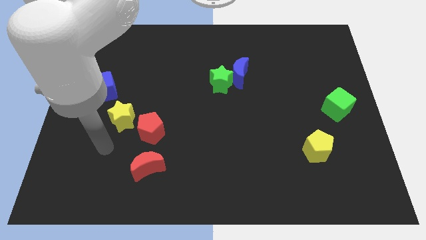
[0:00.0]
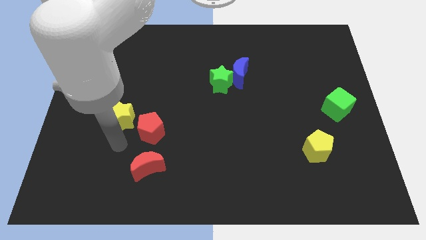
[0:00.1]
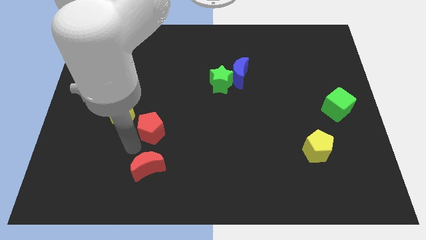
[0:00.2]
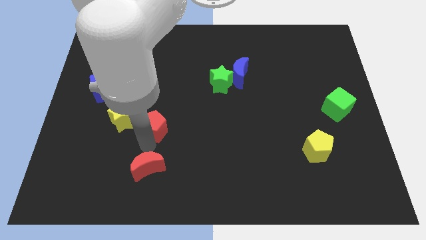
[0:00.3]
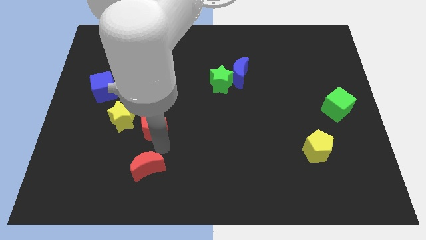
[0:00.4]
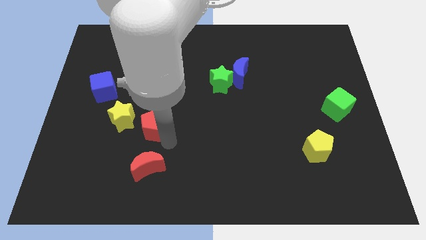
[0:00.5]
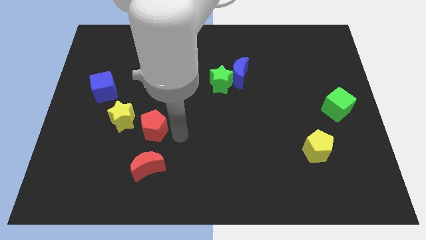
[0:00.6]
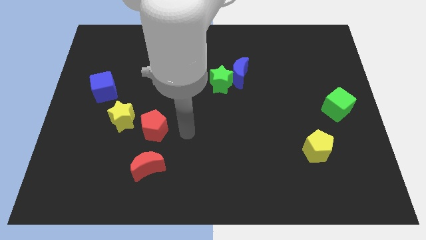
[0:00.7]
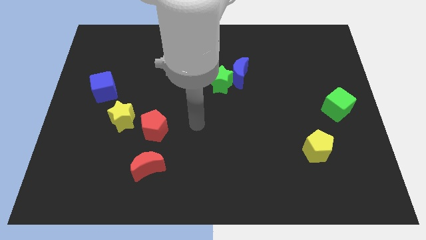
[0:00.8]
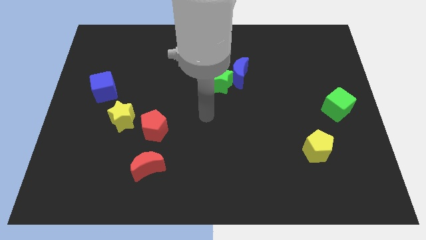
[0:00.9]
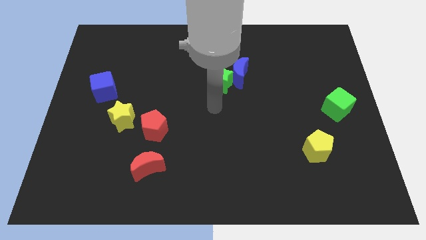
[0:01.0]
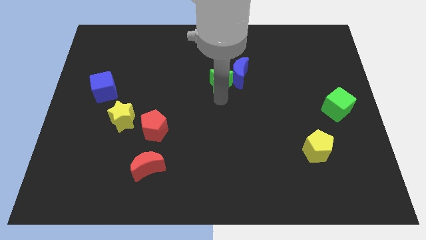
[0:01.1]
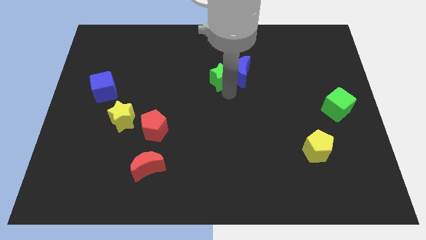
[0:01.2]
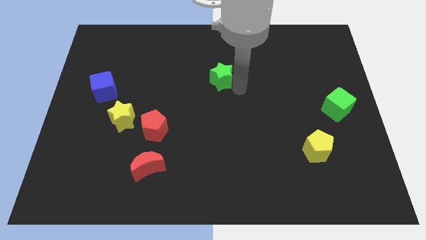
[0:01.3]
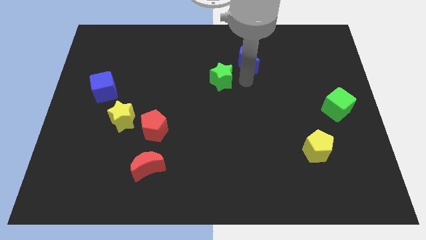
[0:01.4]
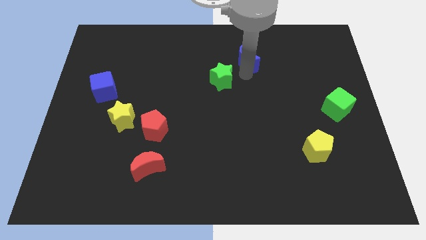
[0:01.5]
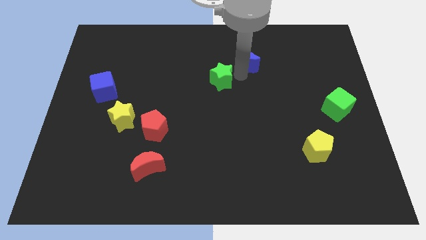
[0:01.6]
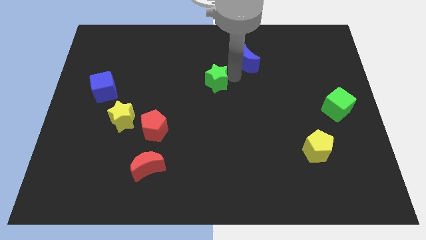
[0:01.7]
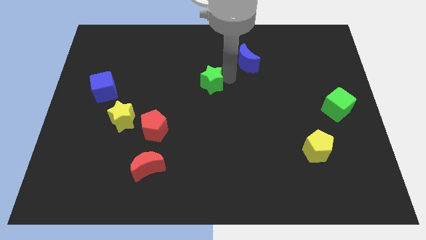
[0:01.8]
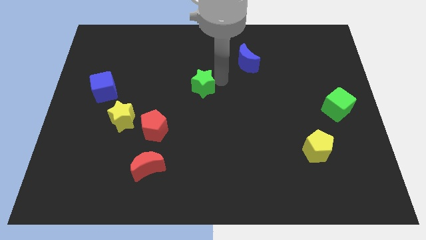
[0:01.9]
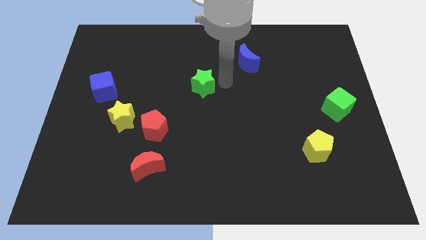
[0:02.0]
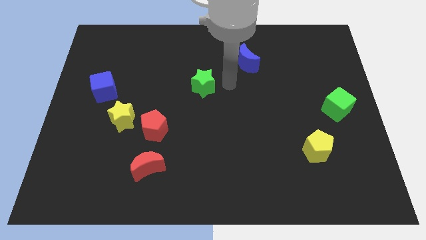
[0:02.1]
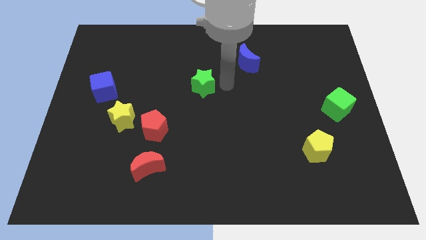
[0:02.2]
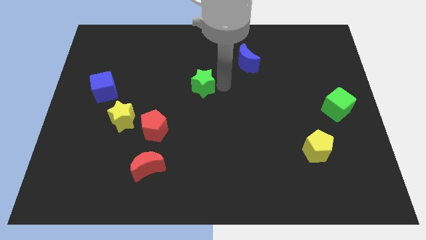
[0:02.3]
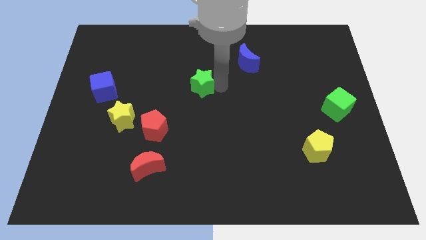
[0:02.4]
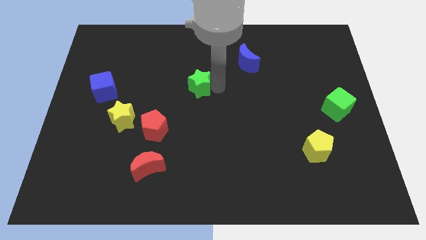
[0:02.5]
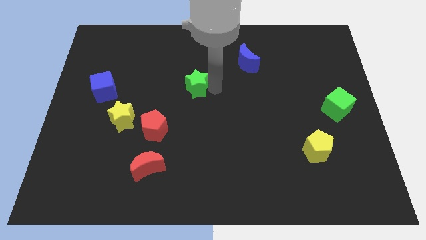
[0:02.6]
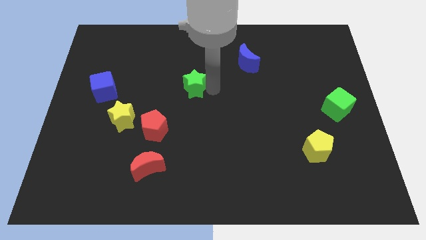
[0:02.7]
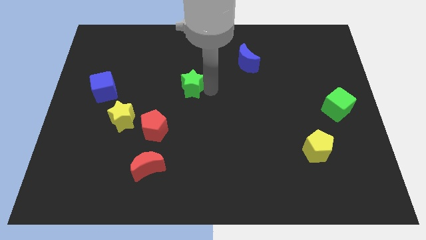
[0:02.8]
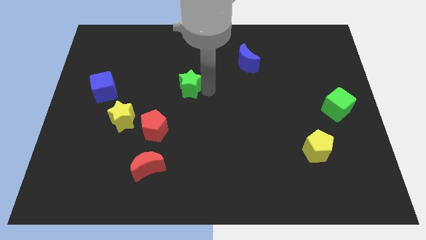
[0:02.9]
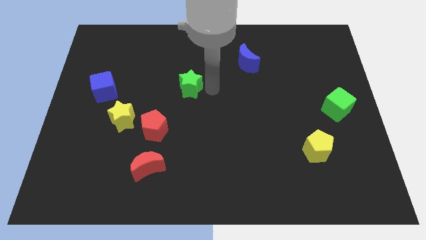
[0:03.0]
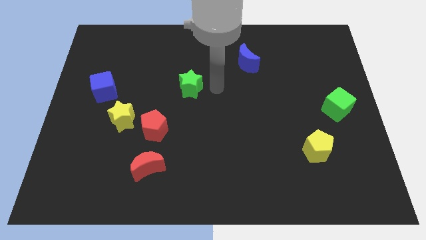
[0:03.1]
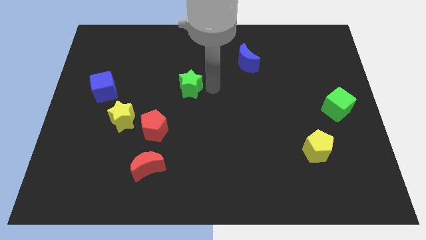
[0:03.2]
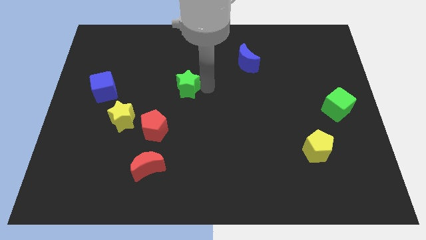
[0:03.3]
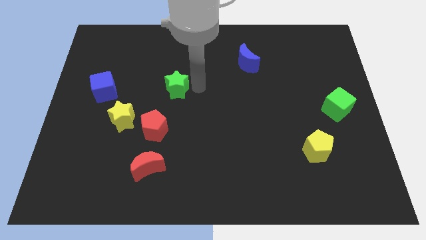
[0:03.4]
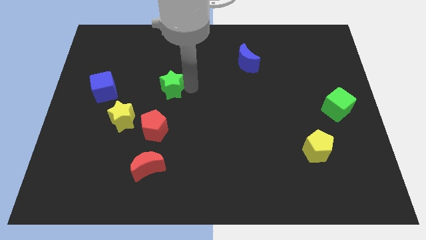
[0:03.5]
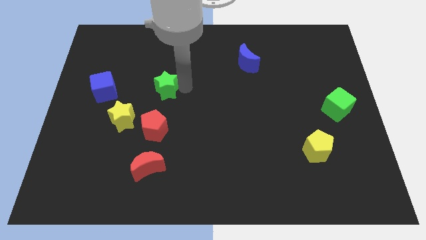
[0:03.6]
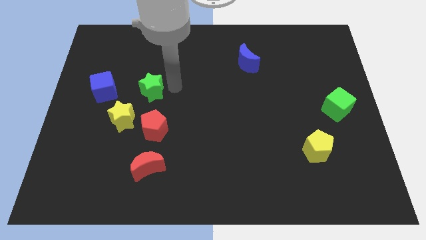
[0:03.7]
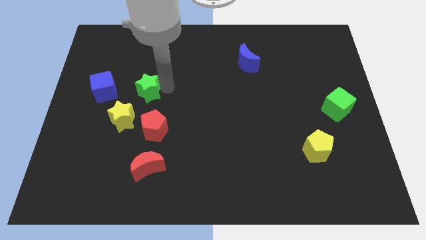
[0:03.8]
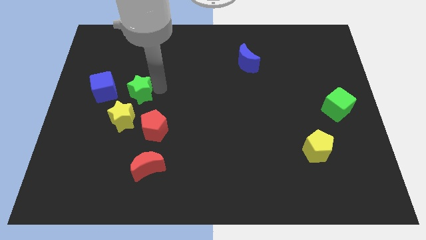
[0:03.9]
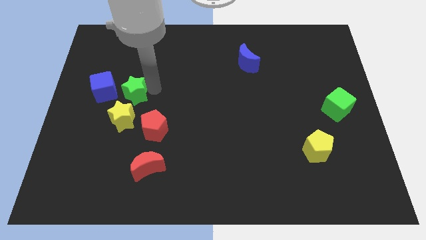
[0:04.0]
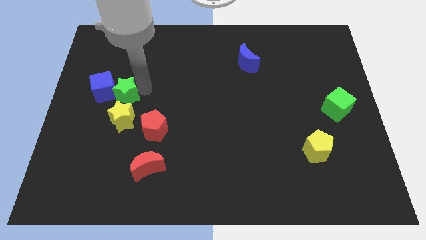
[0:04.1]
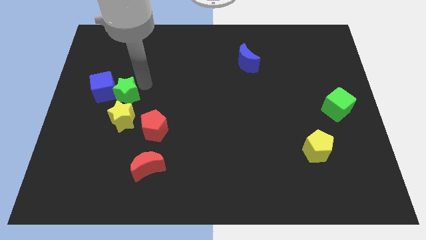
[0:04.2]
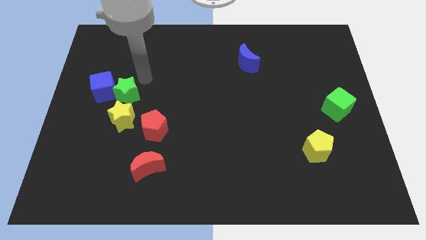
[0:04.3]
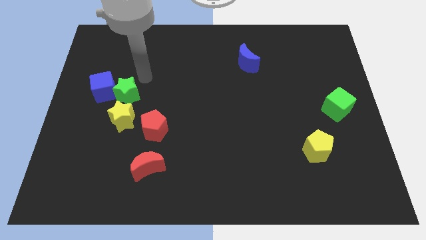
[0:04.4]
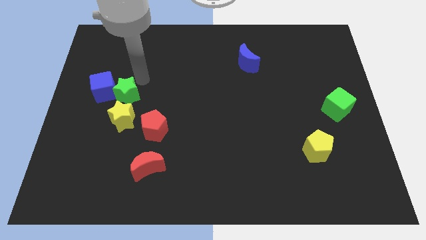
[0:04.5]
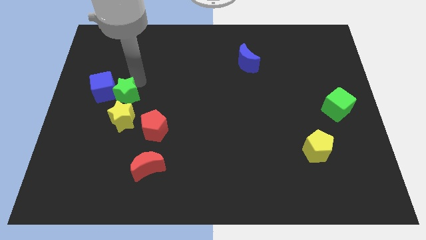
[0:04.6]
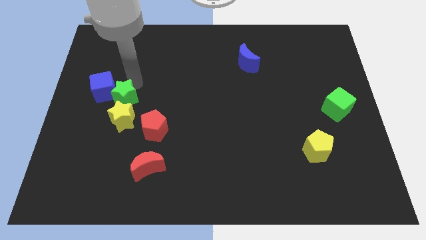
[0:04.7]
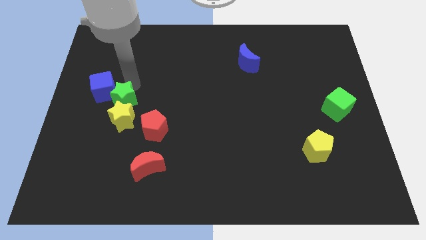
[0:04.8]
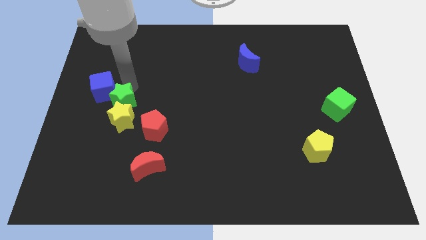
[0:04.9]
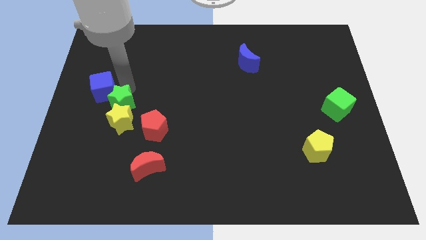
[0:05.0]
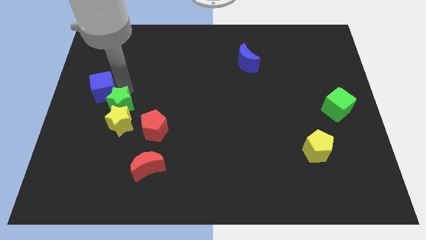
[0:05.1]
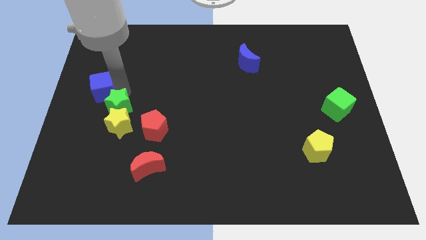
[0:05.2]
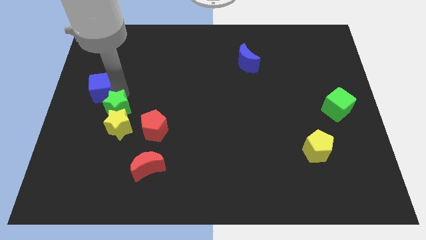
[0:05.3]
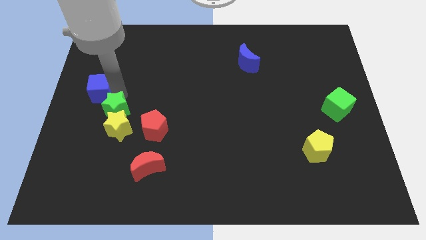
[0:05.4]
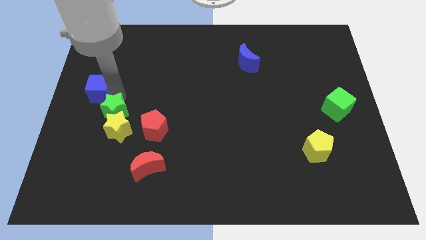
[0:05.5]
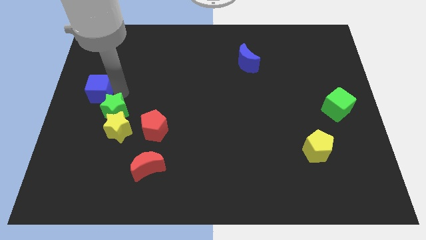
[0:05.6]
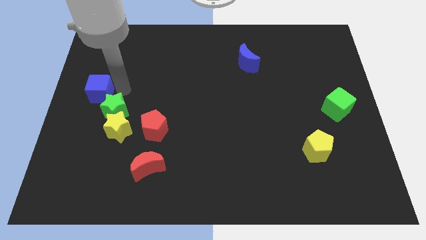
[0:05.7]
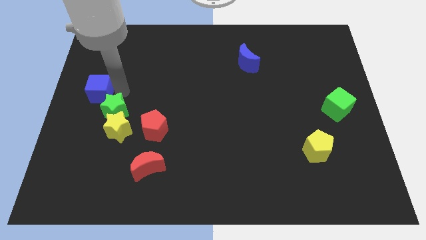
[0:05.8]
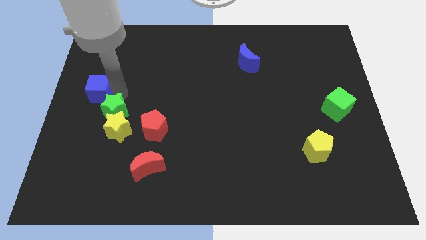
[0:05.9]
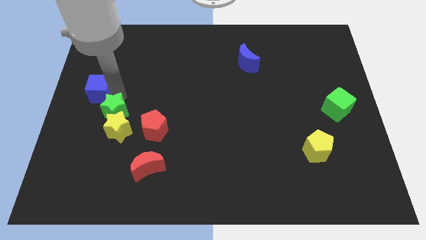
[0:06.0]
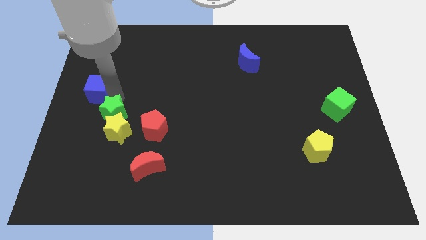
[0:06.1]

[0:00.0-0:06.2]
slide the green star just left of the red pentagon

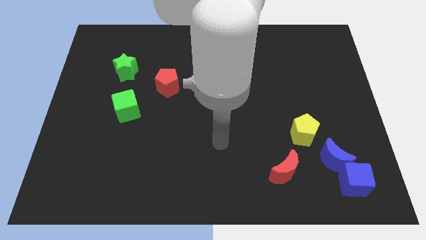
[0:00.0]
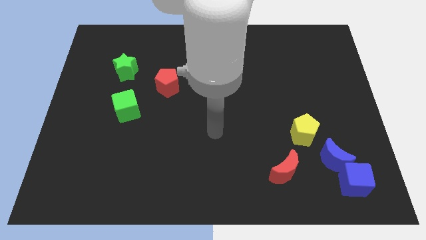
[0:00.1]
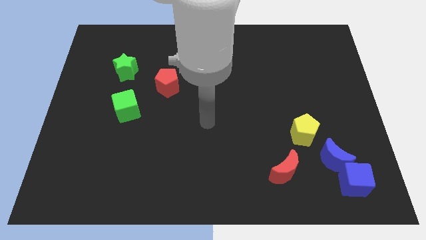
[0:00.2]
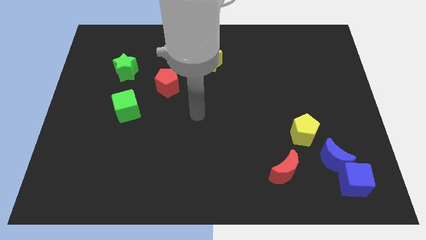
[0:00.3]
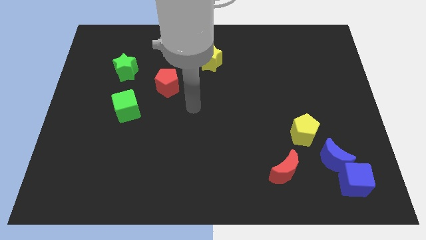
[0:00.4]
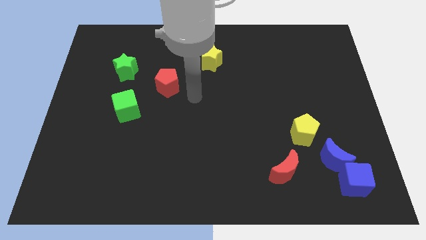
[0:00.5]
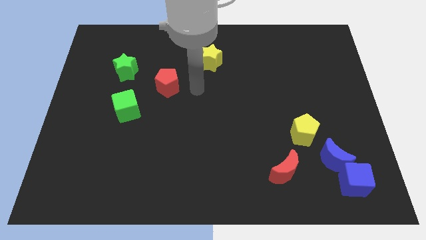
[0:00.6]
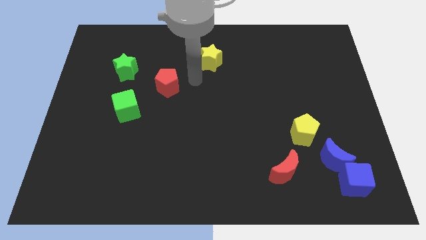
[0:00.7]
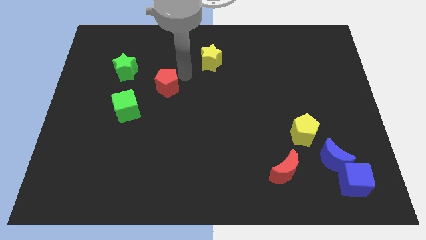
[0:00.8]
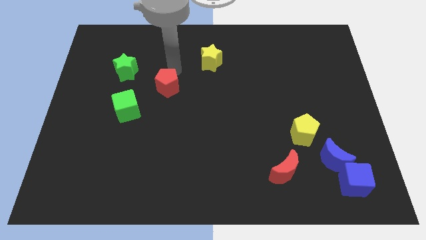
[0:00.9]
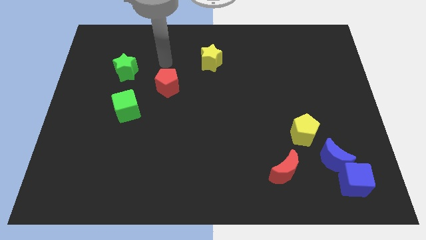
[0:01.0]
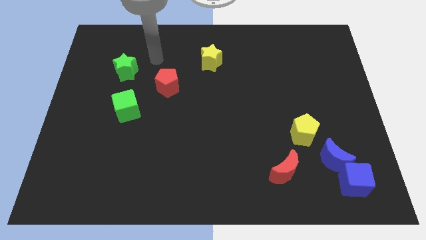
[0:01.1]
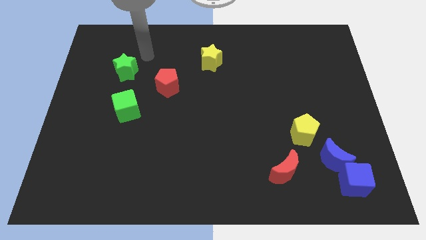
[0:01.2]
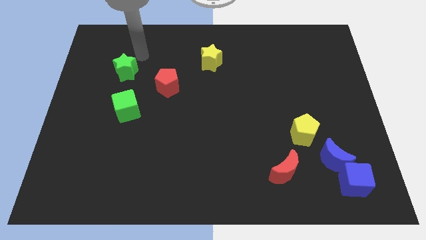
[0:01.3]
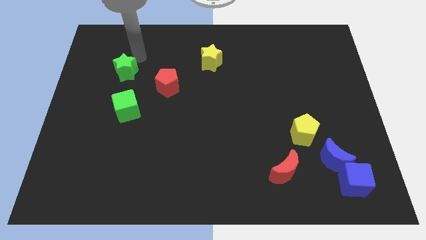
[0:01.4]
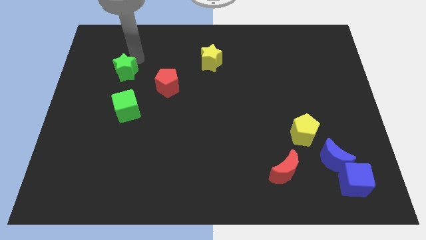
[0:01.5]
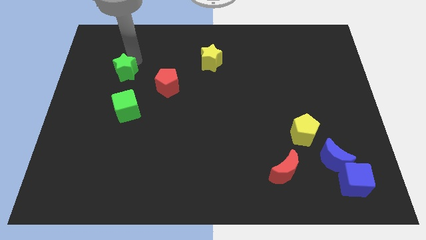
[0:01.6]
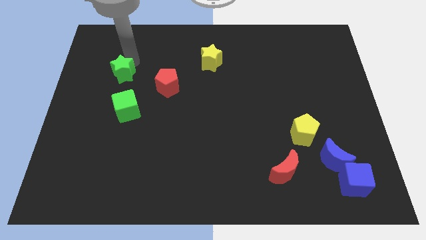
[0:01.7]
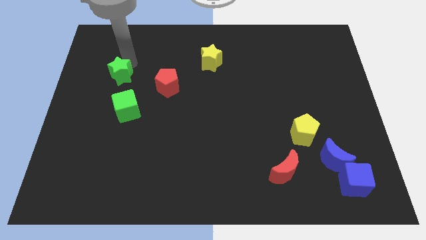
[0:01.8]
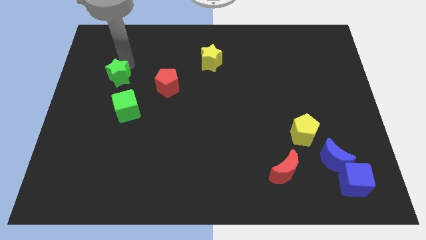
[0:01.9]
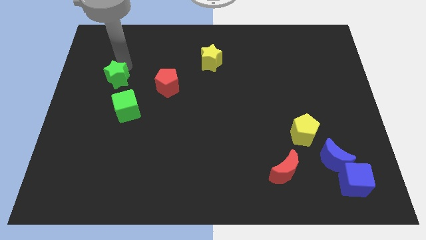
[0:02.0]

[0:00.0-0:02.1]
slide the green star to the top left of the green cube

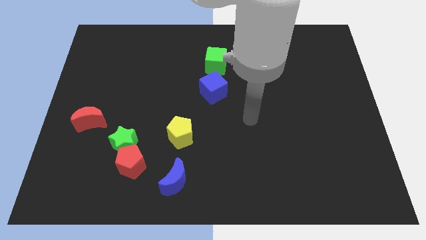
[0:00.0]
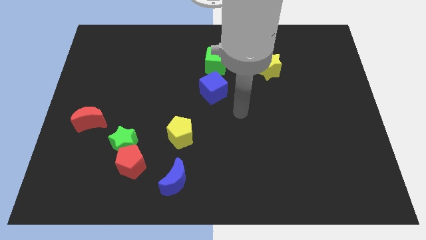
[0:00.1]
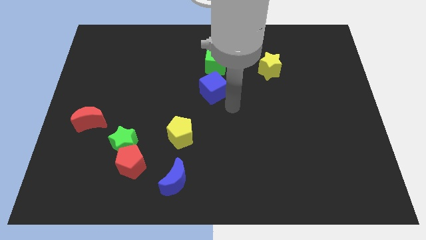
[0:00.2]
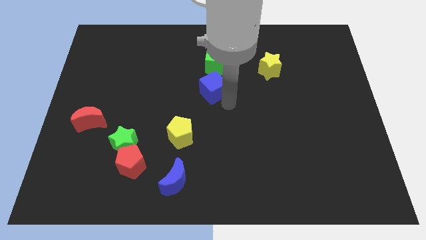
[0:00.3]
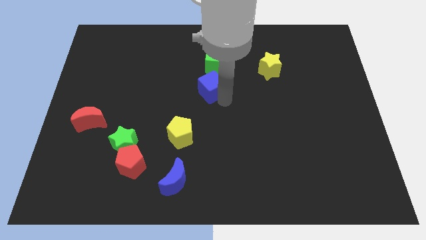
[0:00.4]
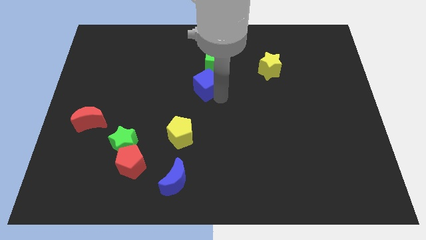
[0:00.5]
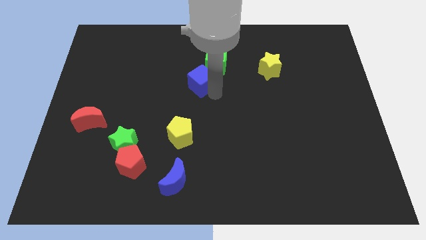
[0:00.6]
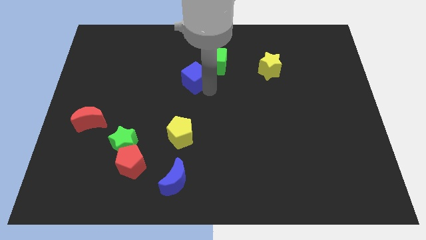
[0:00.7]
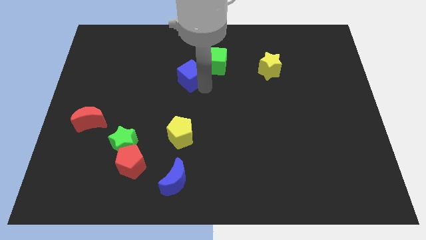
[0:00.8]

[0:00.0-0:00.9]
move the blue cube just left of the green cube
